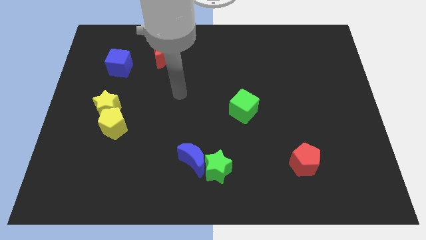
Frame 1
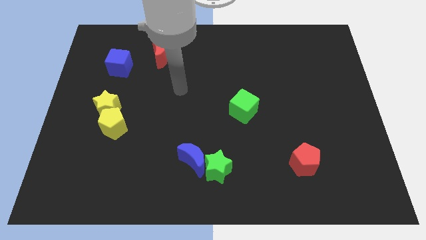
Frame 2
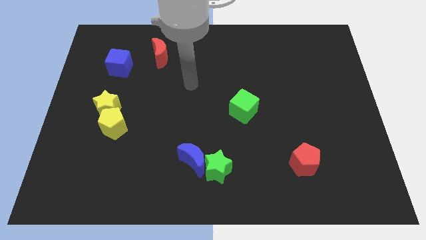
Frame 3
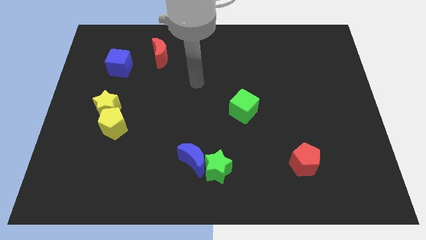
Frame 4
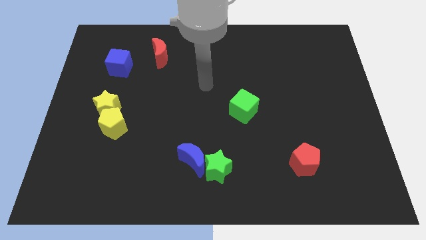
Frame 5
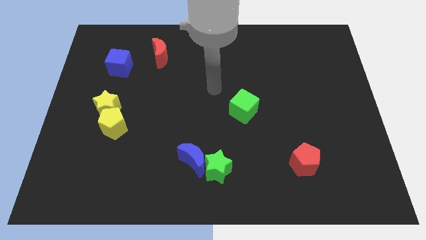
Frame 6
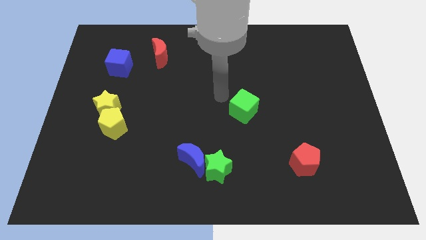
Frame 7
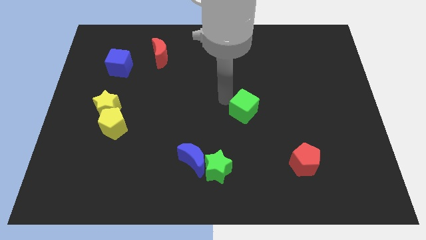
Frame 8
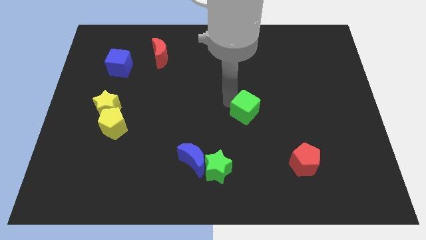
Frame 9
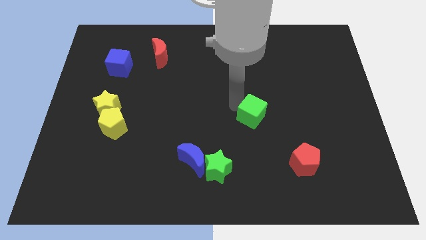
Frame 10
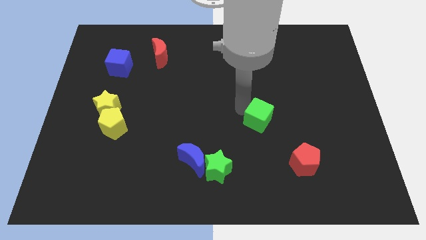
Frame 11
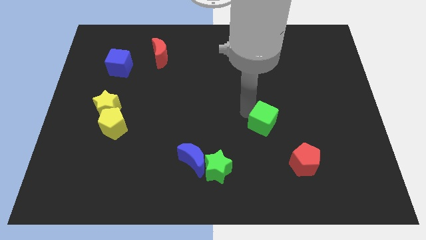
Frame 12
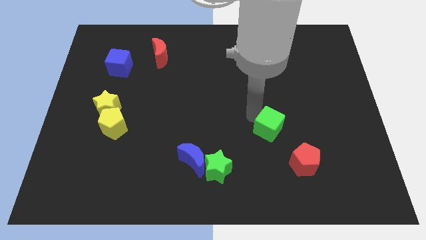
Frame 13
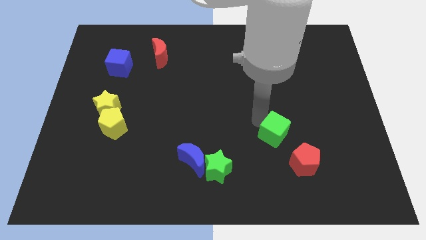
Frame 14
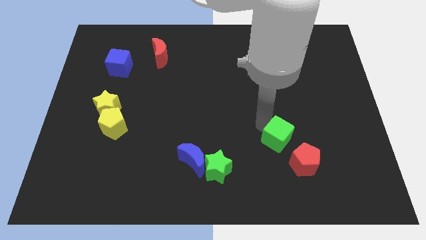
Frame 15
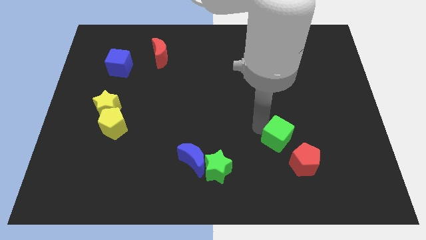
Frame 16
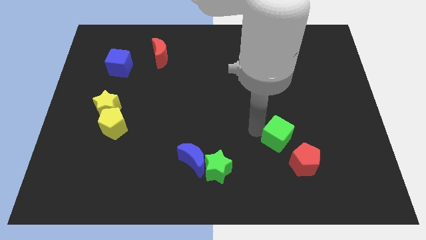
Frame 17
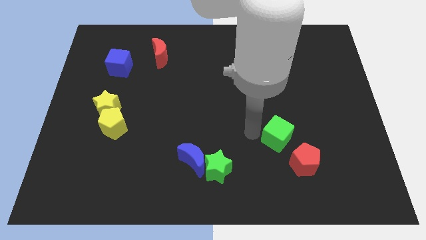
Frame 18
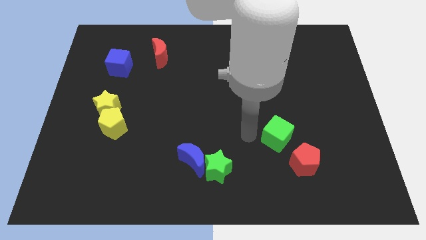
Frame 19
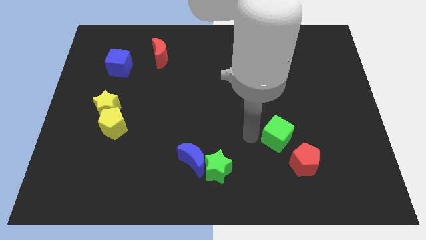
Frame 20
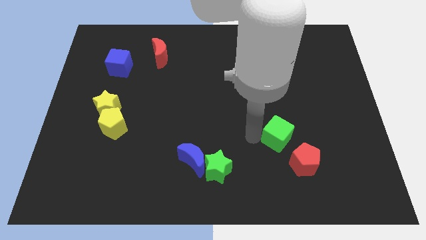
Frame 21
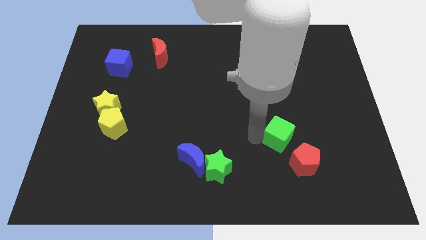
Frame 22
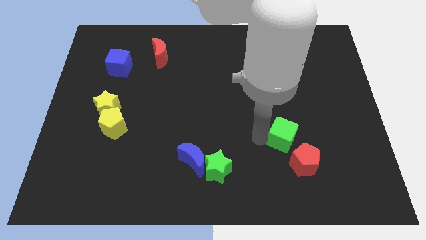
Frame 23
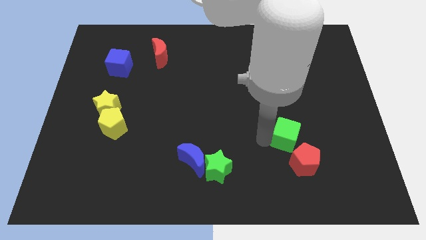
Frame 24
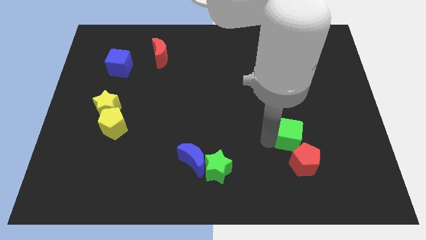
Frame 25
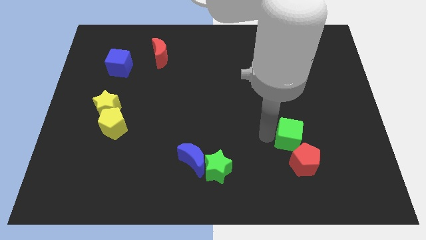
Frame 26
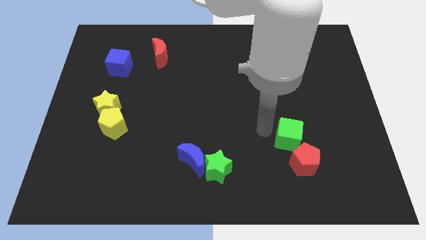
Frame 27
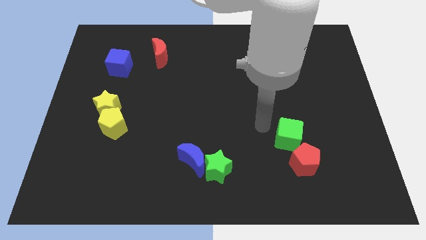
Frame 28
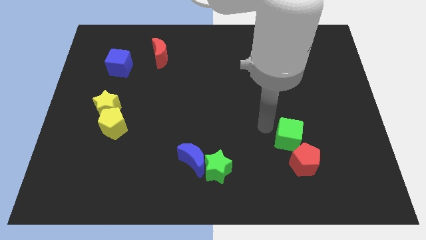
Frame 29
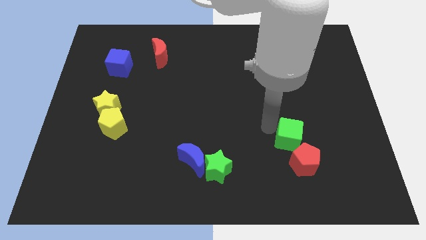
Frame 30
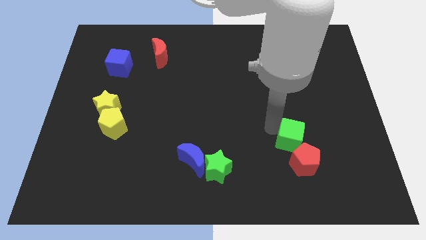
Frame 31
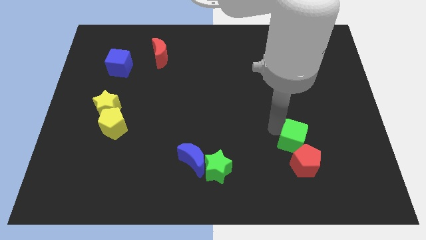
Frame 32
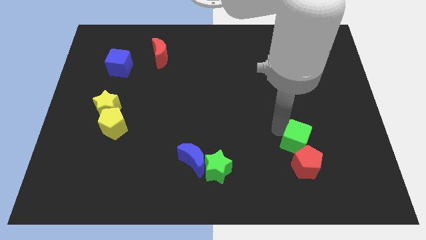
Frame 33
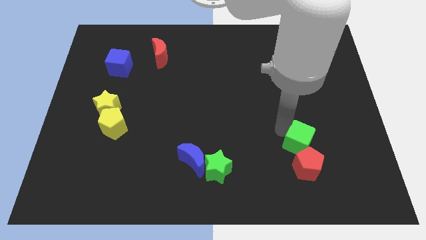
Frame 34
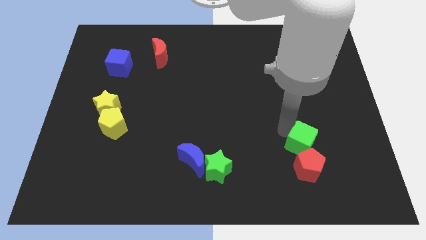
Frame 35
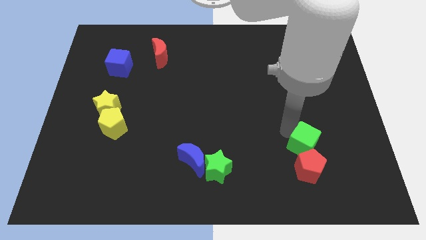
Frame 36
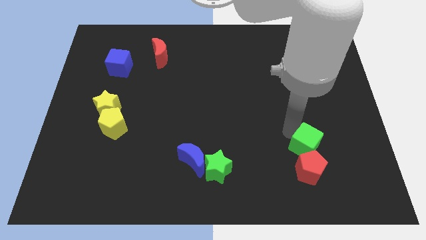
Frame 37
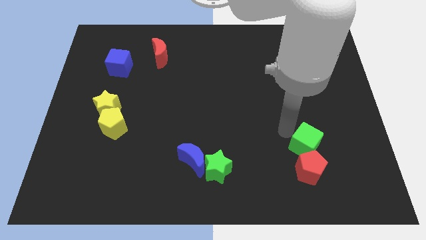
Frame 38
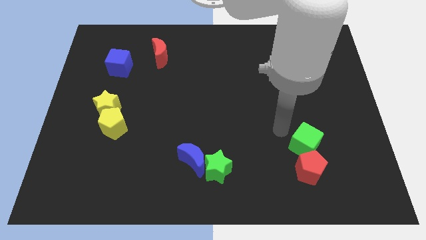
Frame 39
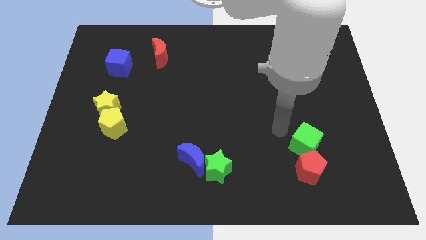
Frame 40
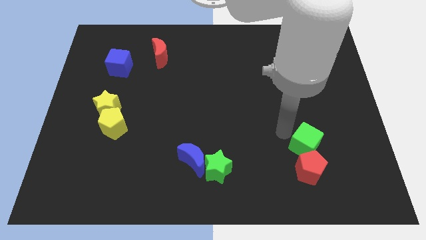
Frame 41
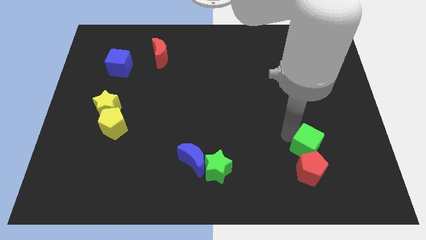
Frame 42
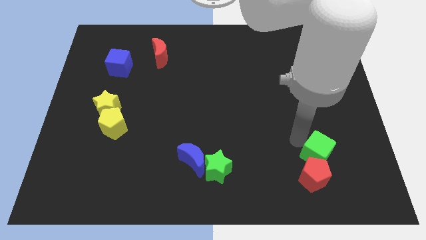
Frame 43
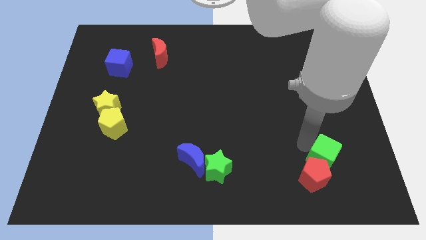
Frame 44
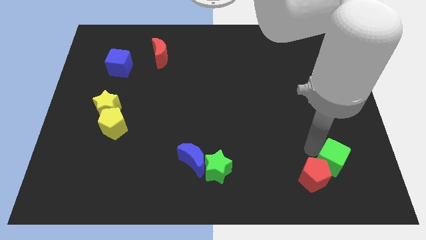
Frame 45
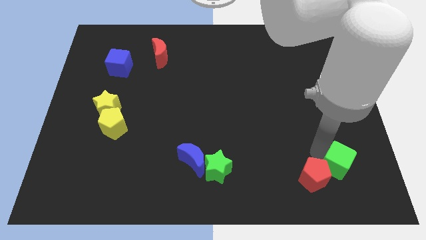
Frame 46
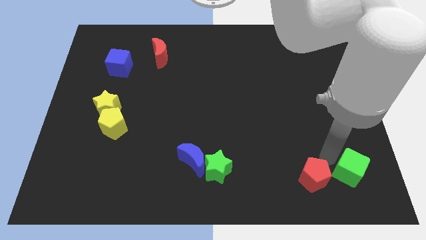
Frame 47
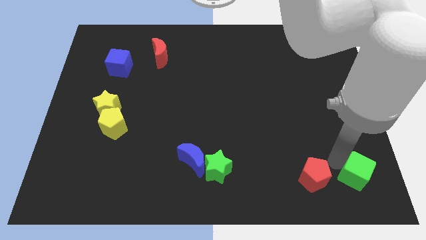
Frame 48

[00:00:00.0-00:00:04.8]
slide the green cube to the lower right corner

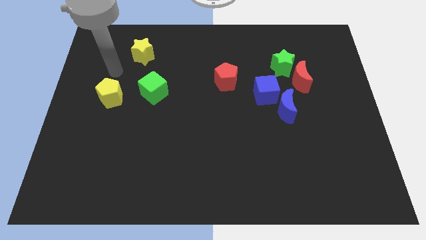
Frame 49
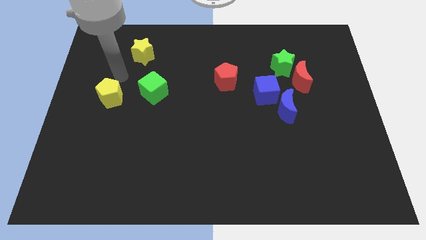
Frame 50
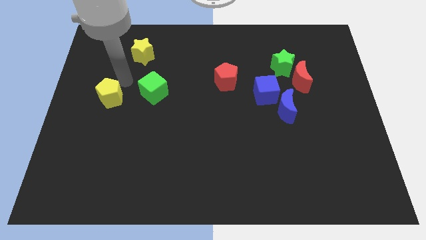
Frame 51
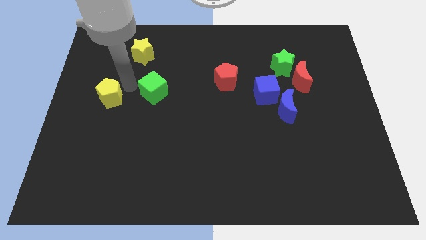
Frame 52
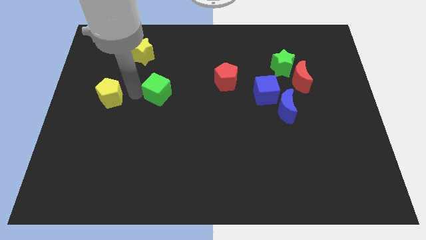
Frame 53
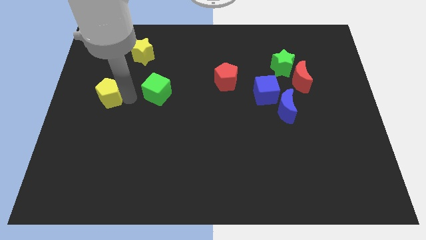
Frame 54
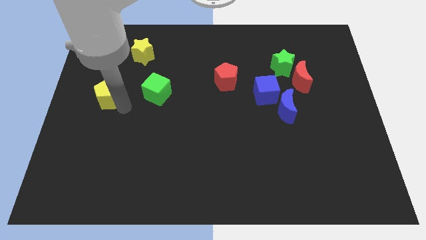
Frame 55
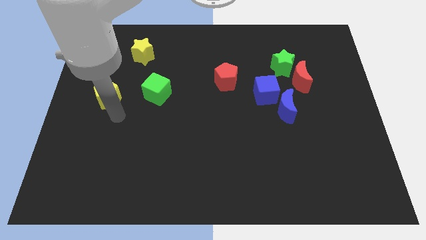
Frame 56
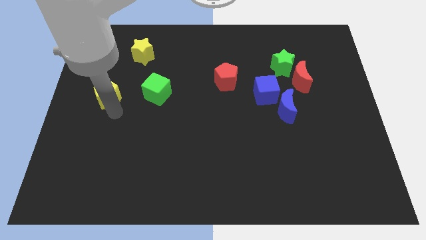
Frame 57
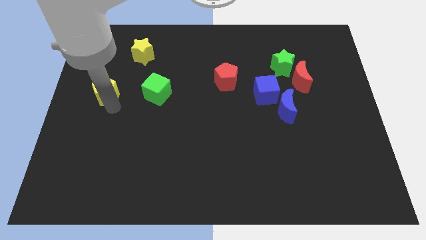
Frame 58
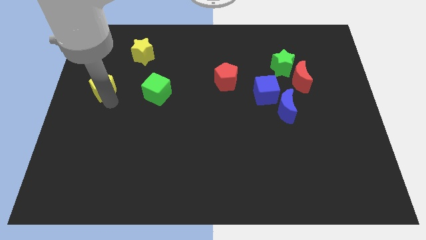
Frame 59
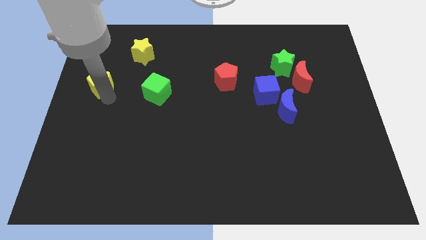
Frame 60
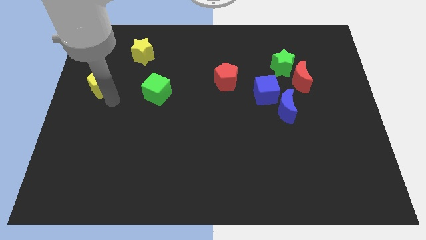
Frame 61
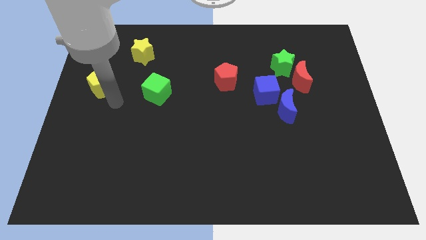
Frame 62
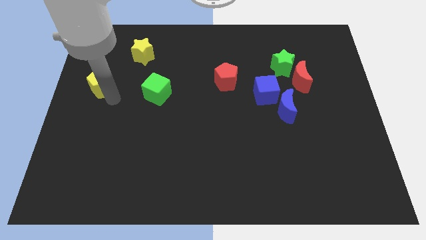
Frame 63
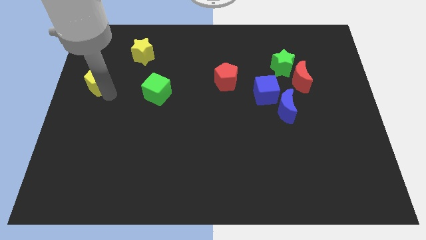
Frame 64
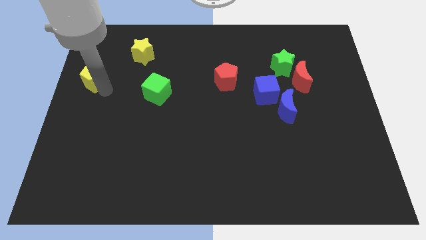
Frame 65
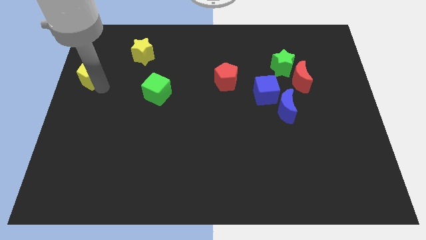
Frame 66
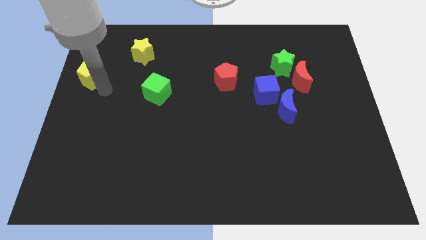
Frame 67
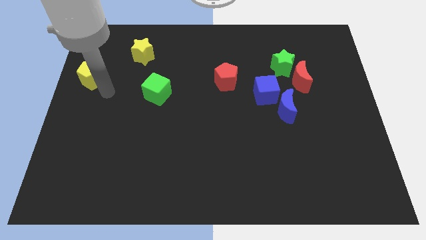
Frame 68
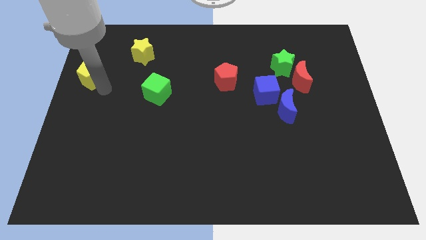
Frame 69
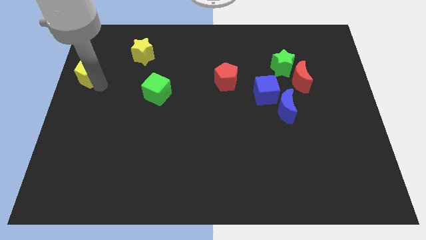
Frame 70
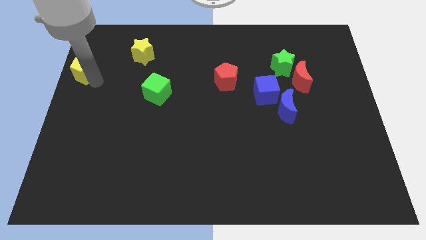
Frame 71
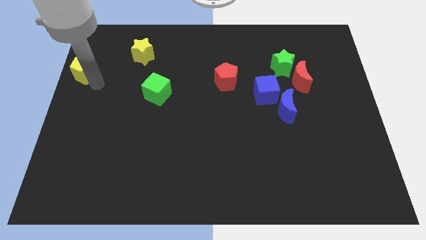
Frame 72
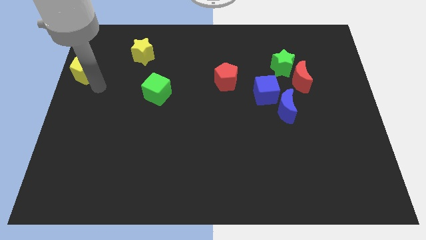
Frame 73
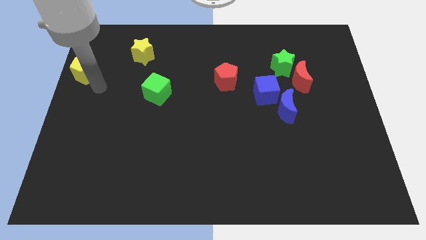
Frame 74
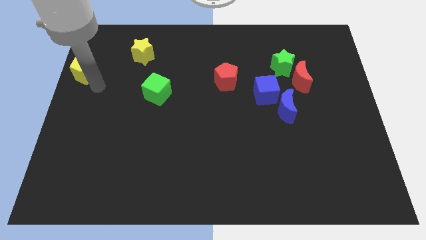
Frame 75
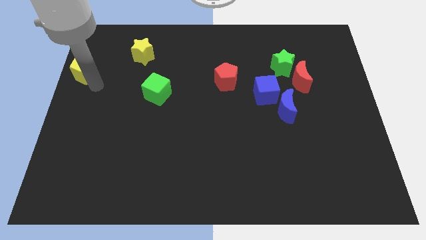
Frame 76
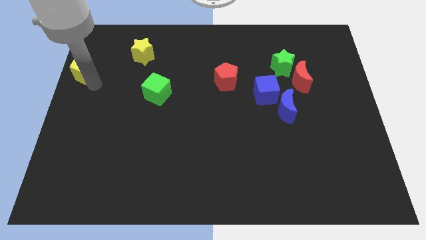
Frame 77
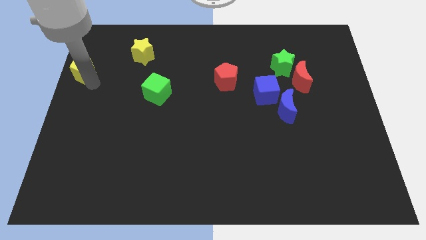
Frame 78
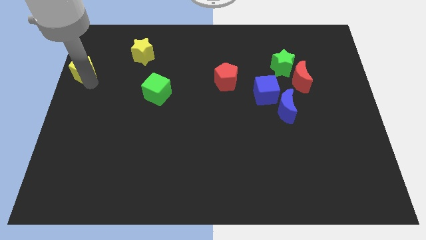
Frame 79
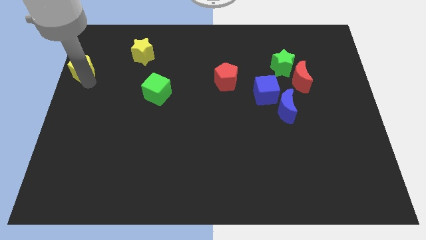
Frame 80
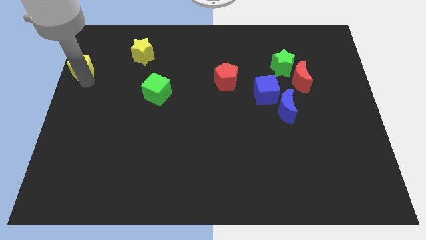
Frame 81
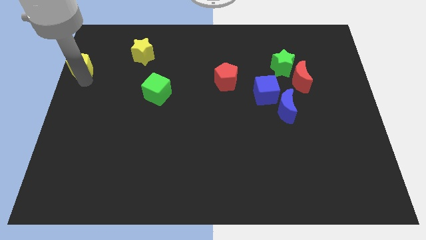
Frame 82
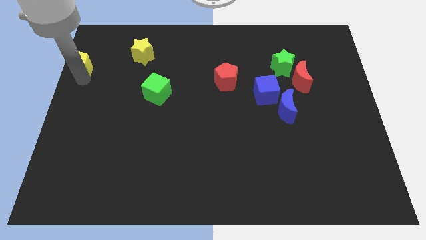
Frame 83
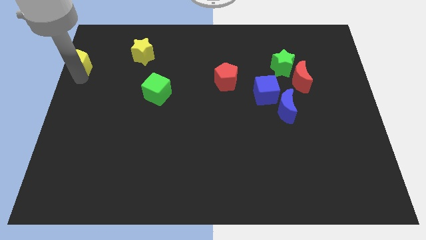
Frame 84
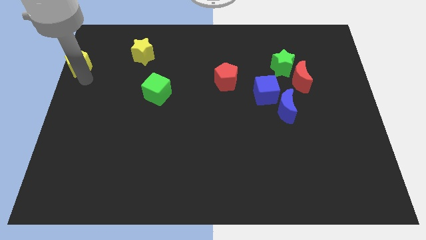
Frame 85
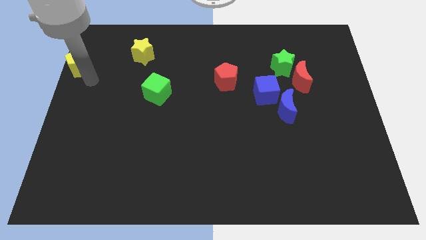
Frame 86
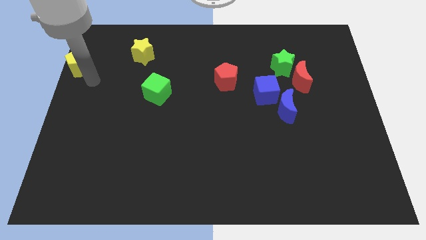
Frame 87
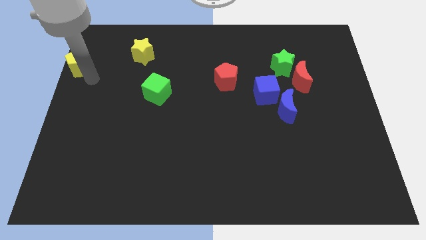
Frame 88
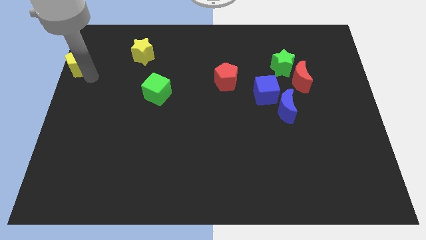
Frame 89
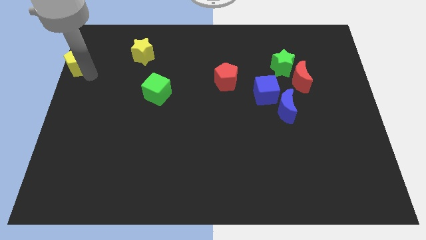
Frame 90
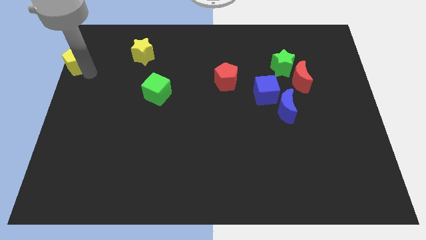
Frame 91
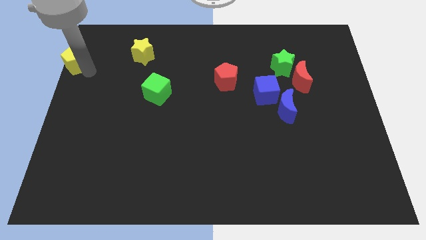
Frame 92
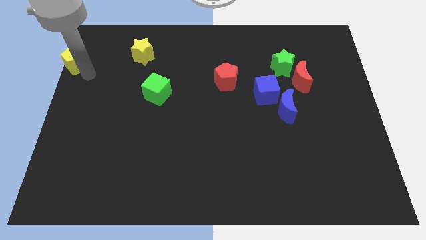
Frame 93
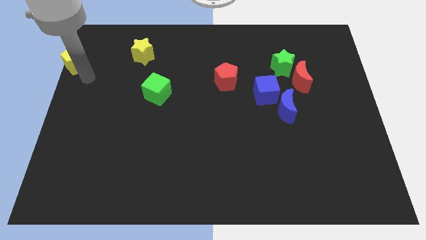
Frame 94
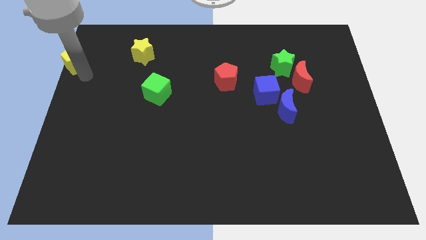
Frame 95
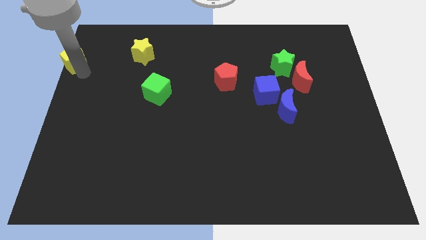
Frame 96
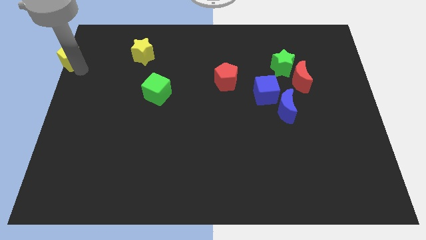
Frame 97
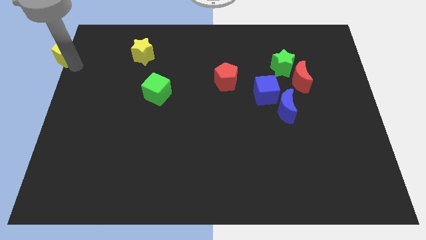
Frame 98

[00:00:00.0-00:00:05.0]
slide the yellow pentagon to the top left
